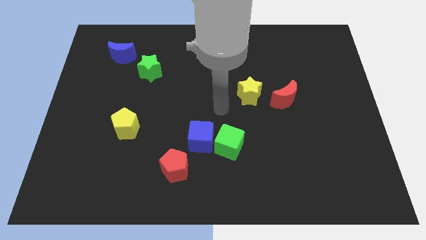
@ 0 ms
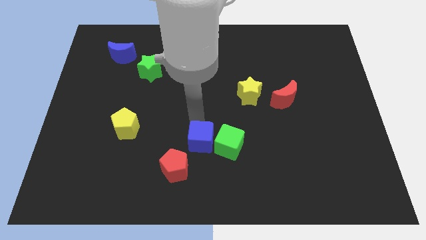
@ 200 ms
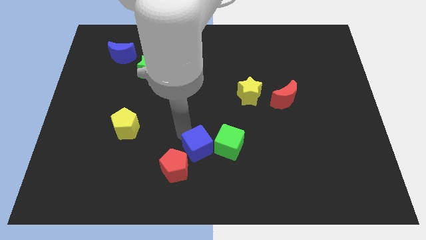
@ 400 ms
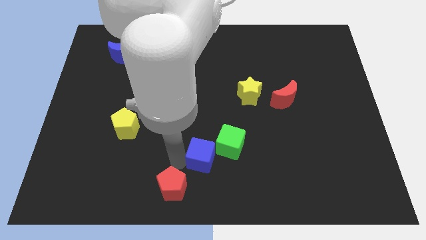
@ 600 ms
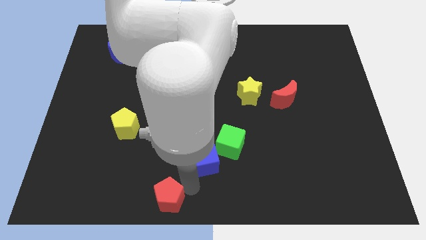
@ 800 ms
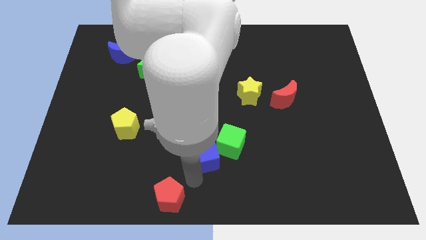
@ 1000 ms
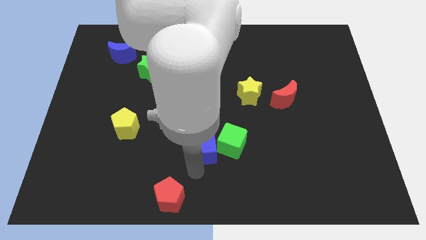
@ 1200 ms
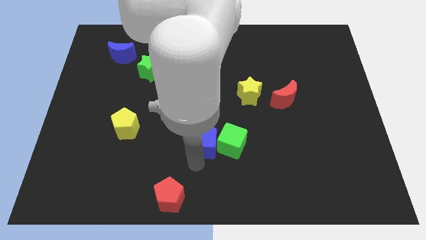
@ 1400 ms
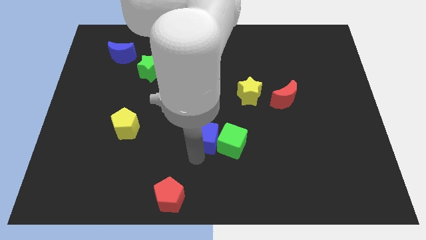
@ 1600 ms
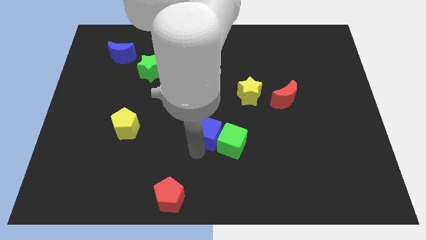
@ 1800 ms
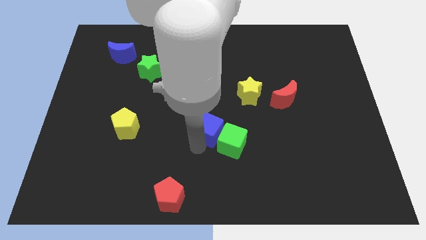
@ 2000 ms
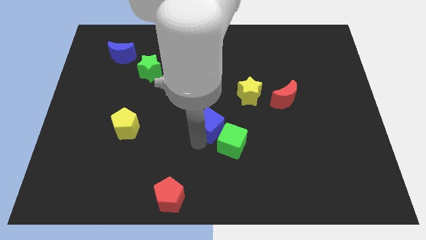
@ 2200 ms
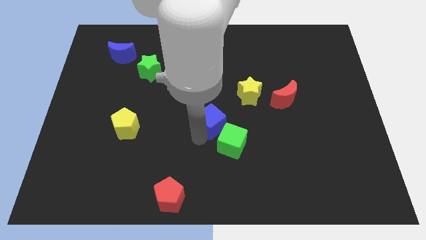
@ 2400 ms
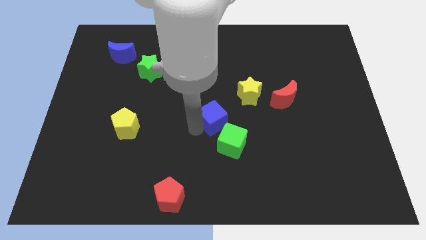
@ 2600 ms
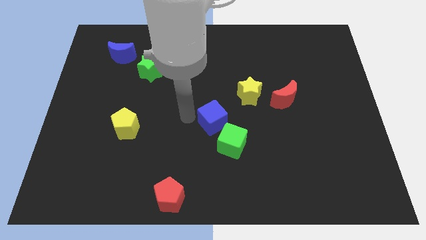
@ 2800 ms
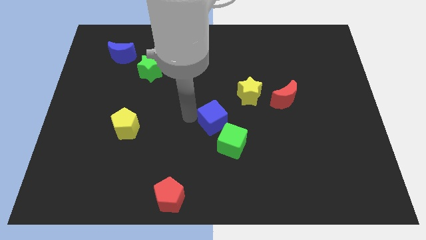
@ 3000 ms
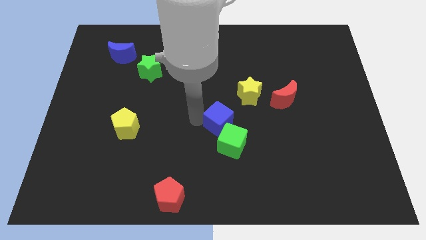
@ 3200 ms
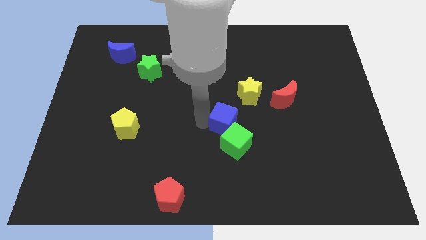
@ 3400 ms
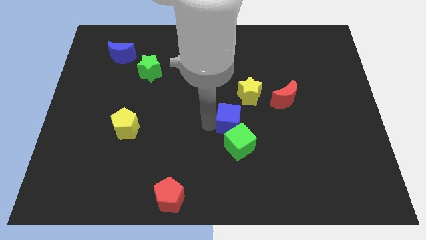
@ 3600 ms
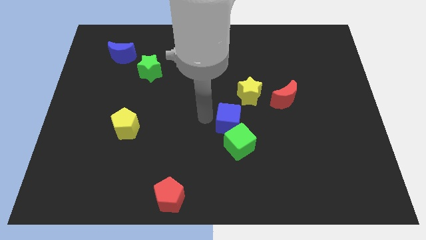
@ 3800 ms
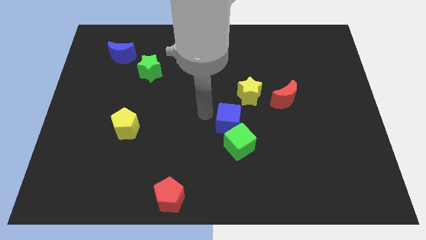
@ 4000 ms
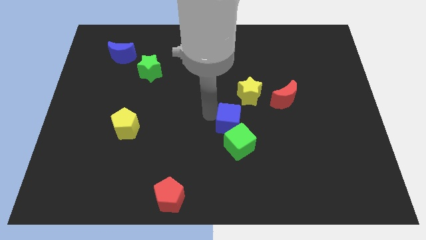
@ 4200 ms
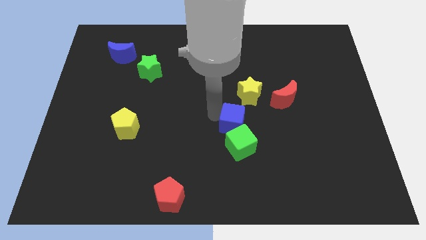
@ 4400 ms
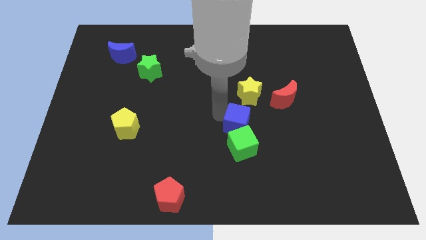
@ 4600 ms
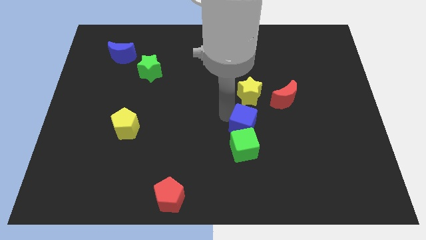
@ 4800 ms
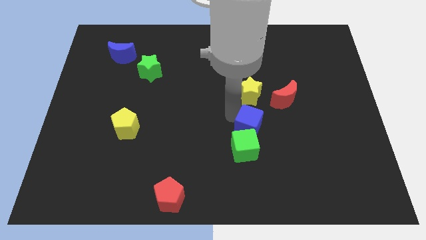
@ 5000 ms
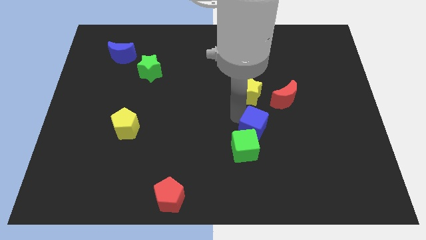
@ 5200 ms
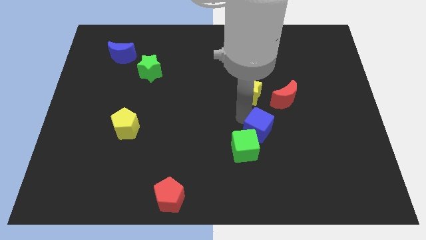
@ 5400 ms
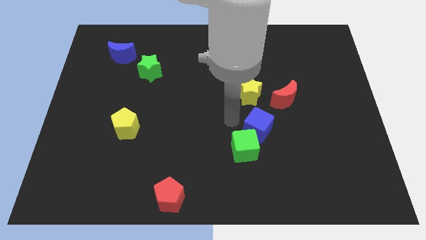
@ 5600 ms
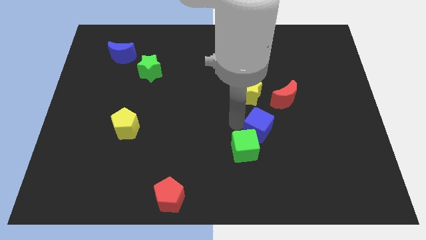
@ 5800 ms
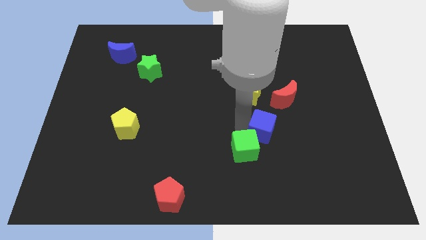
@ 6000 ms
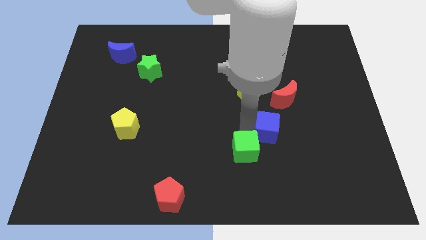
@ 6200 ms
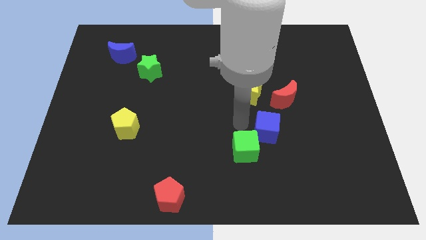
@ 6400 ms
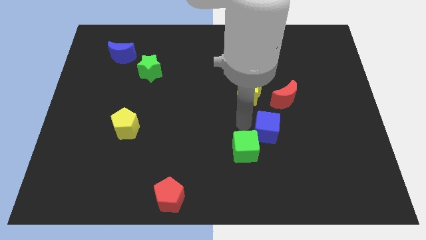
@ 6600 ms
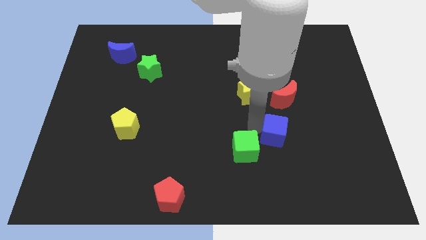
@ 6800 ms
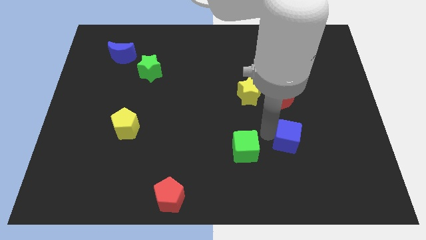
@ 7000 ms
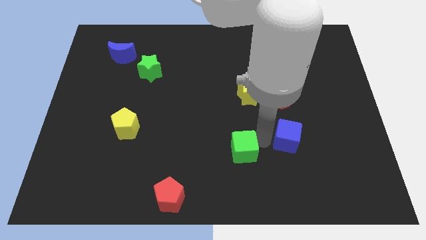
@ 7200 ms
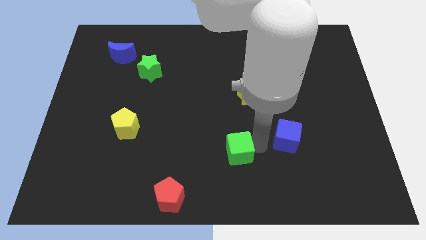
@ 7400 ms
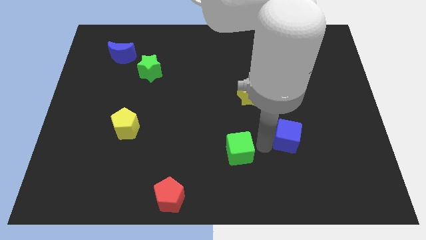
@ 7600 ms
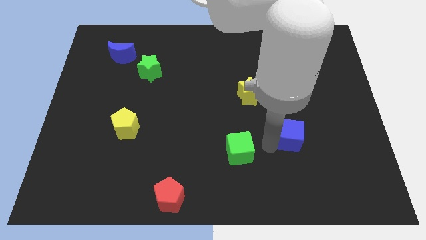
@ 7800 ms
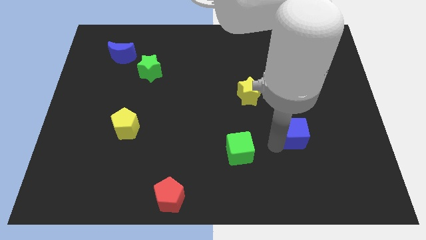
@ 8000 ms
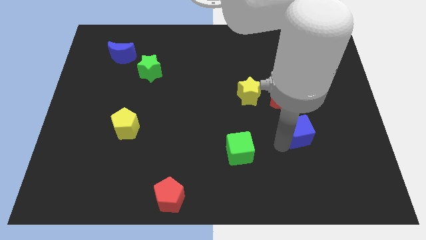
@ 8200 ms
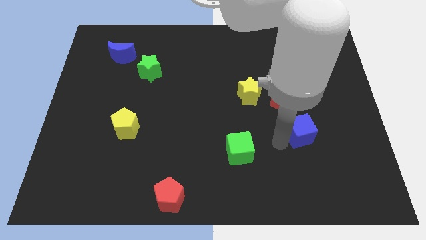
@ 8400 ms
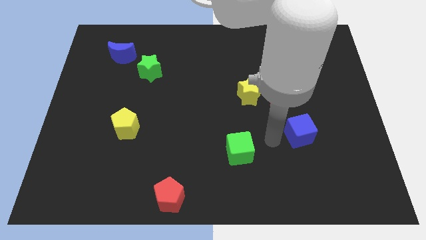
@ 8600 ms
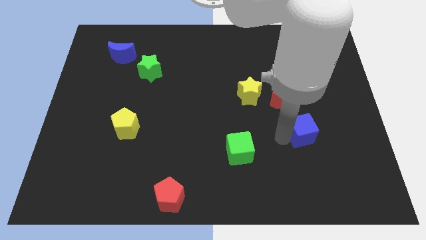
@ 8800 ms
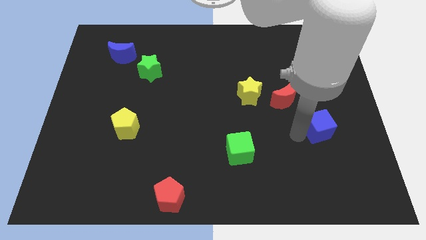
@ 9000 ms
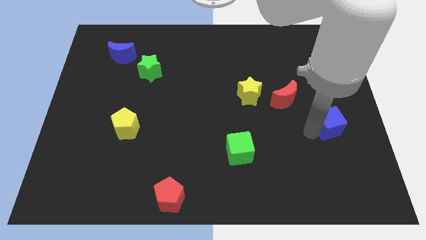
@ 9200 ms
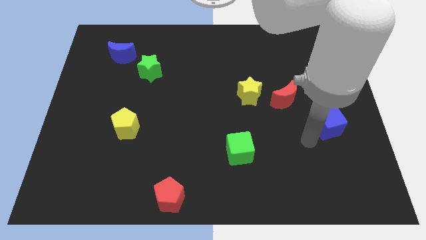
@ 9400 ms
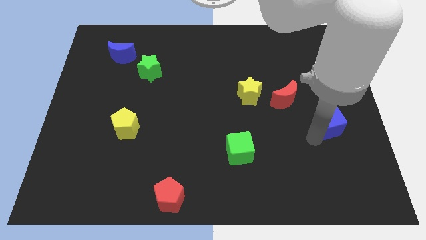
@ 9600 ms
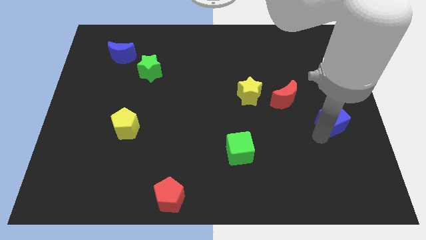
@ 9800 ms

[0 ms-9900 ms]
push the blue cube to the right side

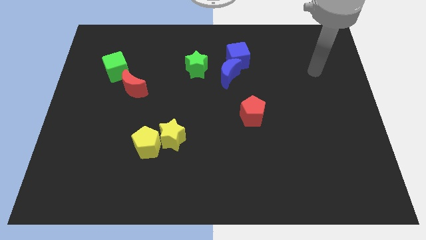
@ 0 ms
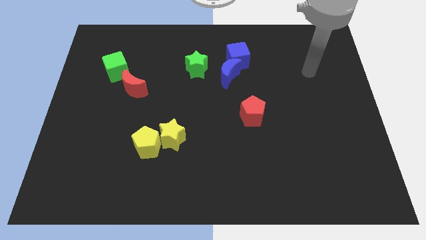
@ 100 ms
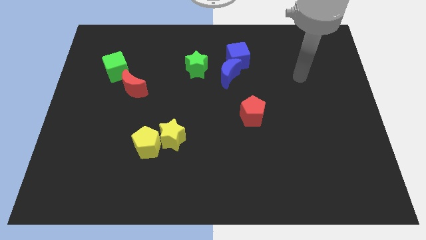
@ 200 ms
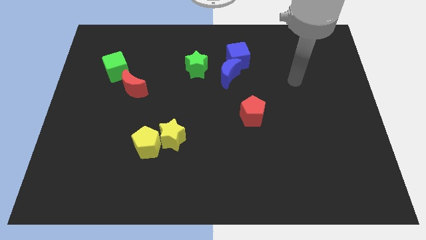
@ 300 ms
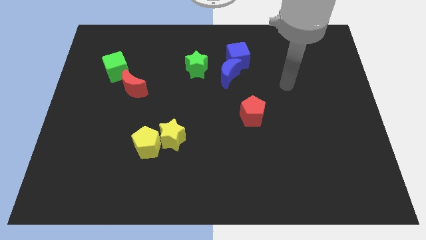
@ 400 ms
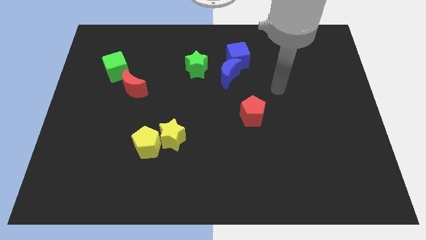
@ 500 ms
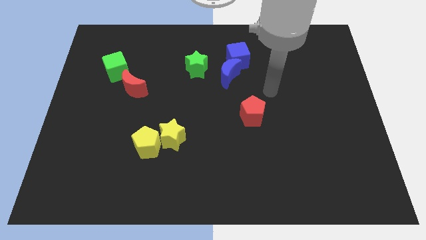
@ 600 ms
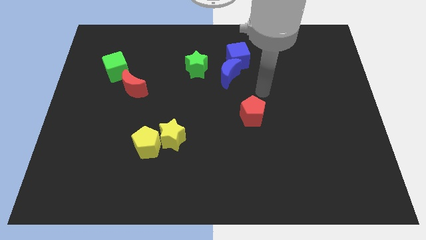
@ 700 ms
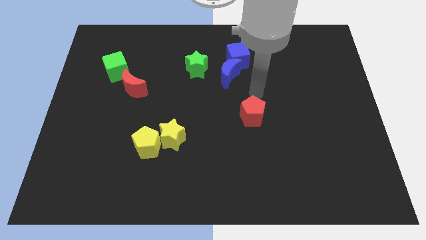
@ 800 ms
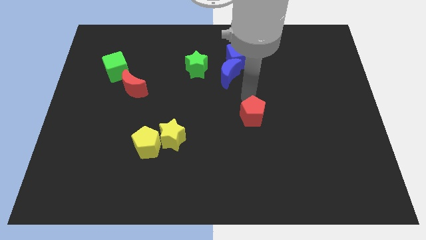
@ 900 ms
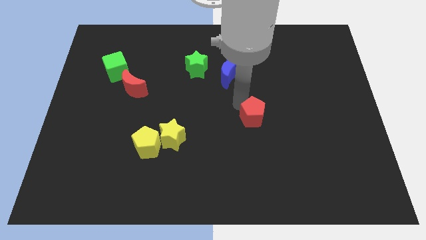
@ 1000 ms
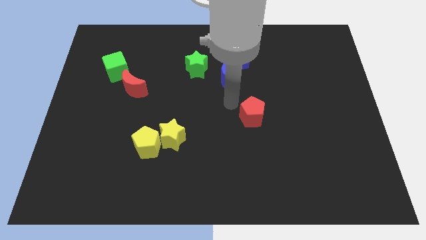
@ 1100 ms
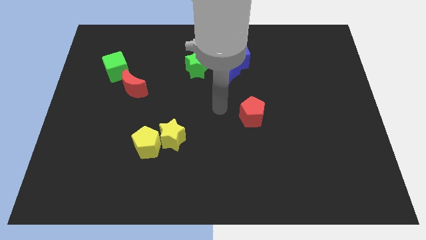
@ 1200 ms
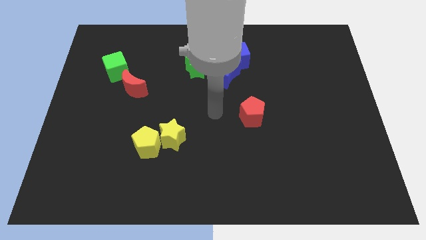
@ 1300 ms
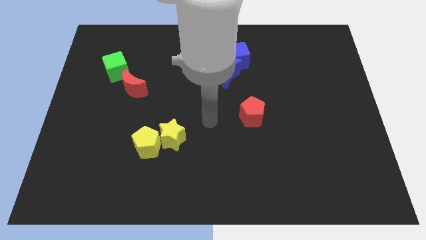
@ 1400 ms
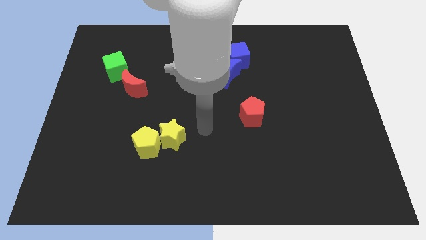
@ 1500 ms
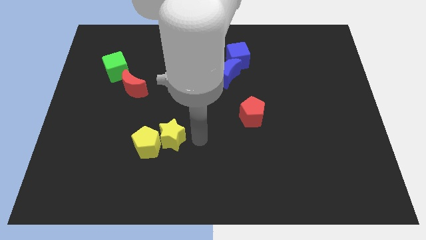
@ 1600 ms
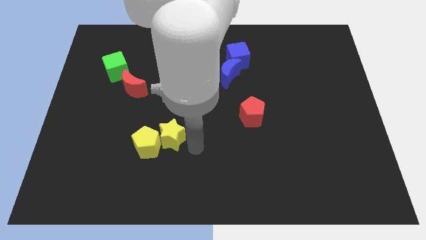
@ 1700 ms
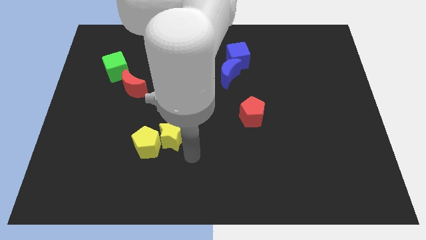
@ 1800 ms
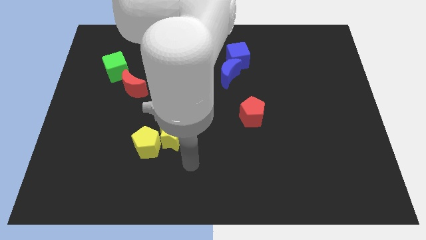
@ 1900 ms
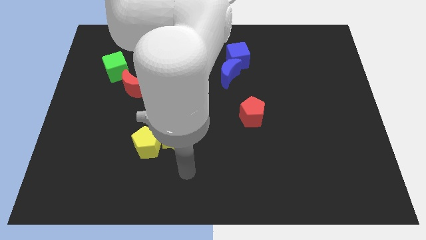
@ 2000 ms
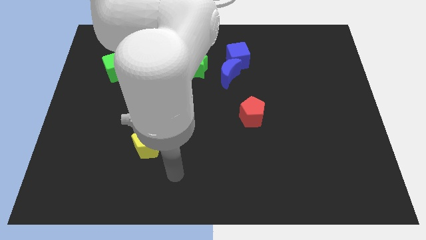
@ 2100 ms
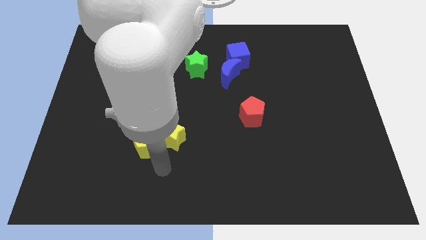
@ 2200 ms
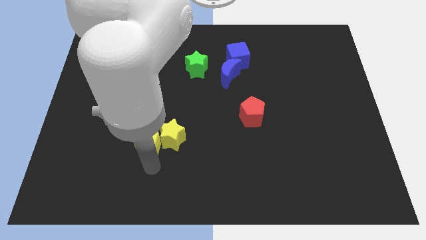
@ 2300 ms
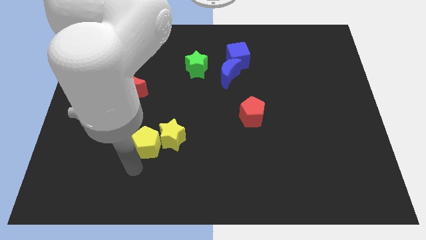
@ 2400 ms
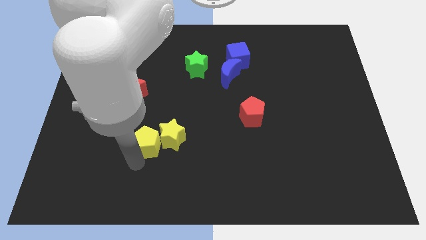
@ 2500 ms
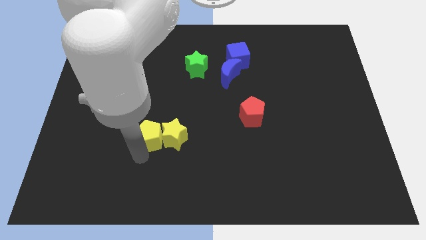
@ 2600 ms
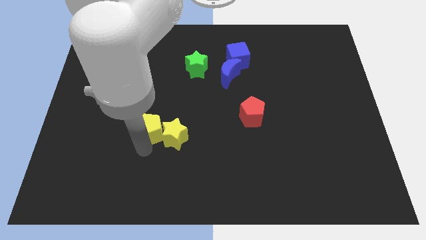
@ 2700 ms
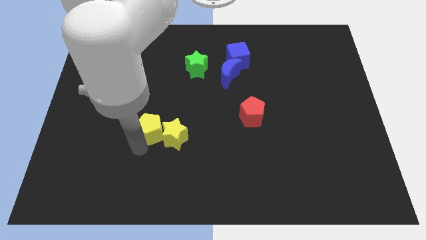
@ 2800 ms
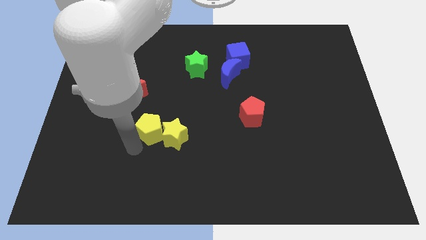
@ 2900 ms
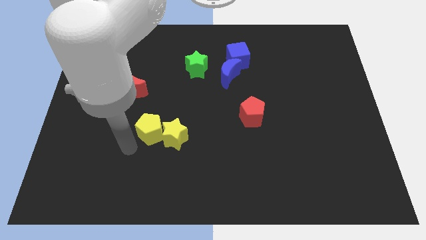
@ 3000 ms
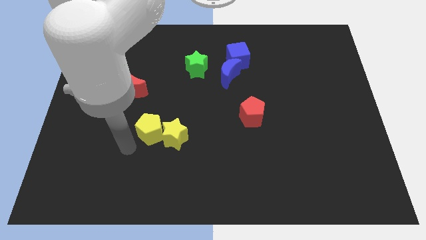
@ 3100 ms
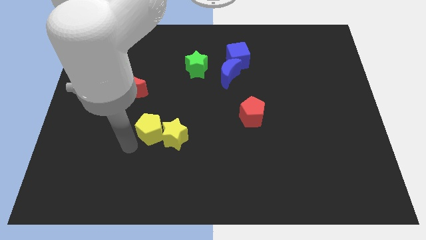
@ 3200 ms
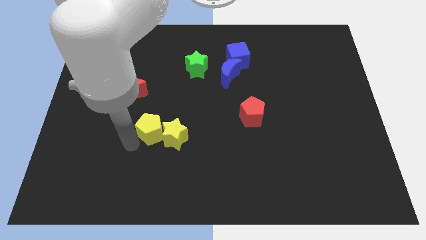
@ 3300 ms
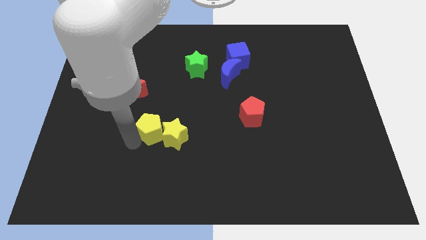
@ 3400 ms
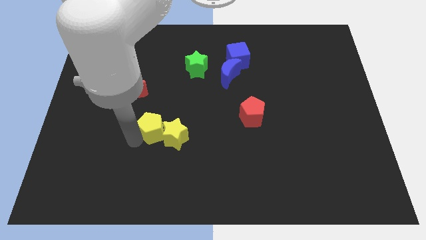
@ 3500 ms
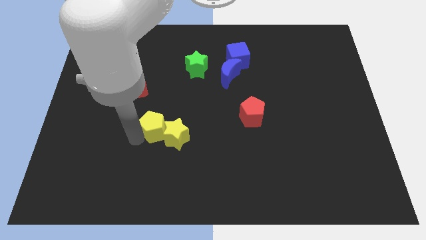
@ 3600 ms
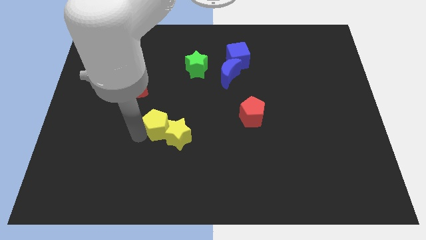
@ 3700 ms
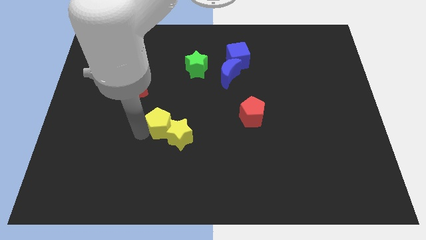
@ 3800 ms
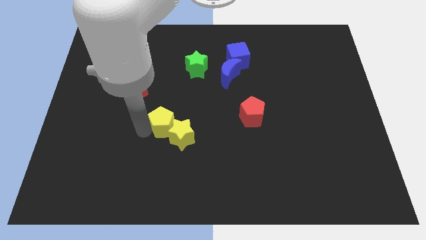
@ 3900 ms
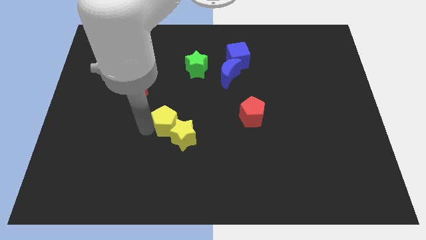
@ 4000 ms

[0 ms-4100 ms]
put the yellow pentagon to the center of the board
